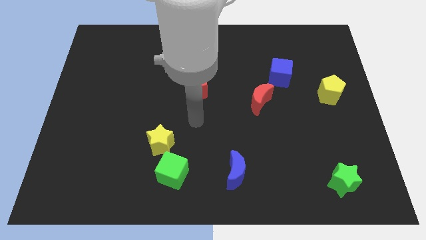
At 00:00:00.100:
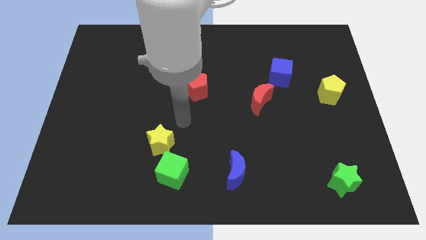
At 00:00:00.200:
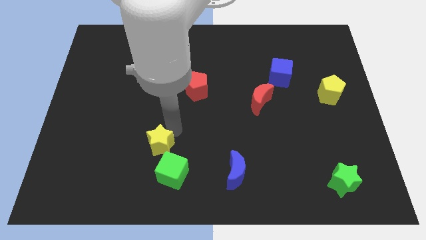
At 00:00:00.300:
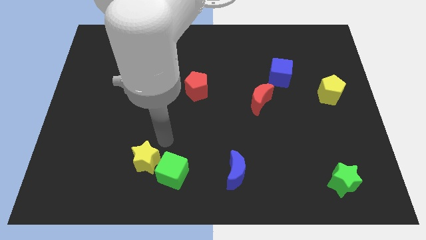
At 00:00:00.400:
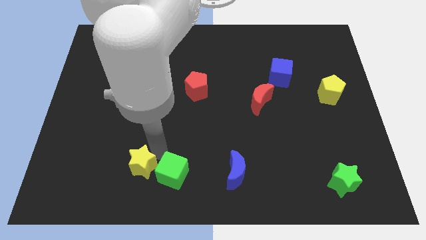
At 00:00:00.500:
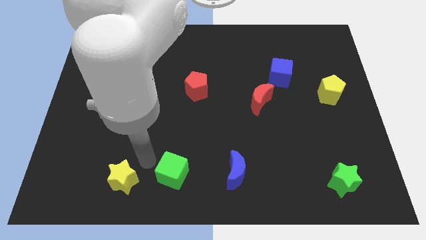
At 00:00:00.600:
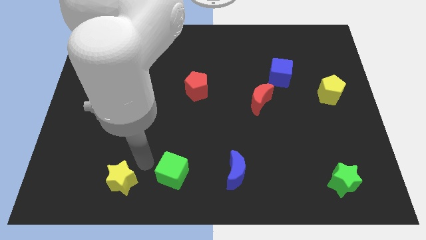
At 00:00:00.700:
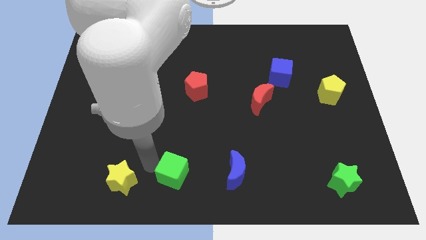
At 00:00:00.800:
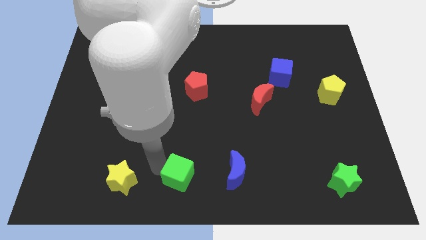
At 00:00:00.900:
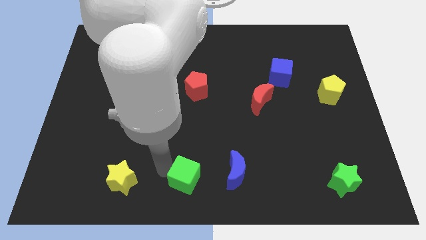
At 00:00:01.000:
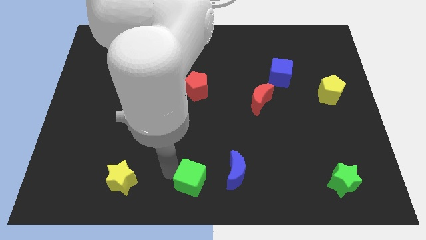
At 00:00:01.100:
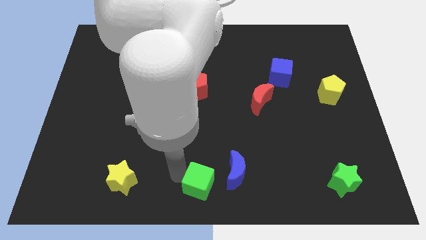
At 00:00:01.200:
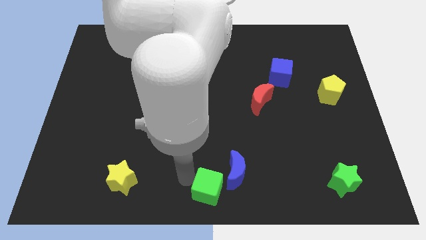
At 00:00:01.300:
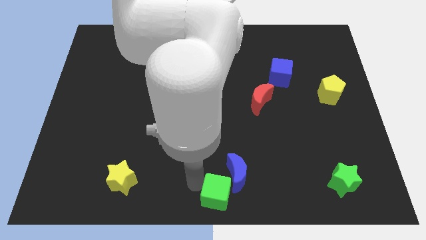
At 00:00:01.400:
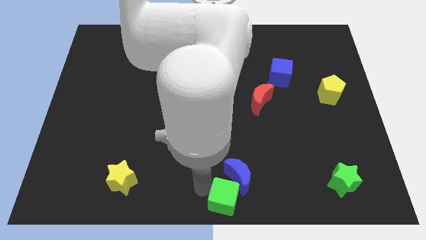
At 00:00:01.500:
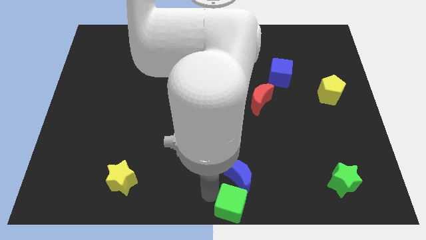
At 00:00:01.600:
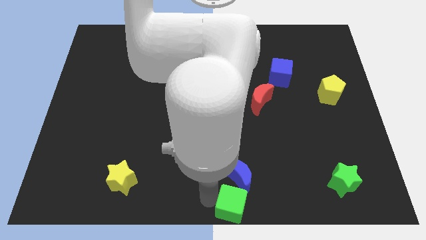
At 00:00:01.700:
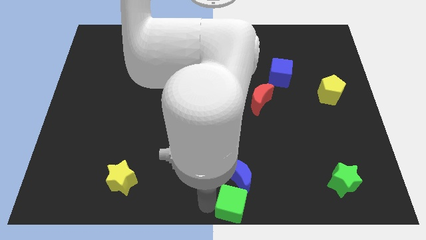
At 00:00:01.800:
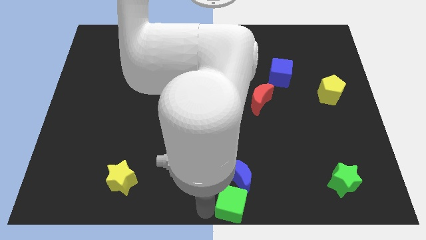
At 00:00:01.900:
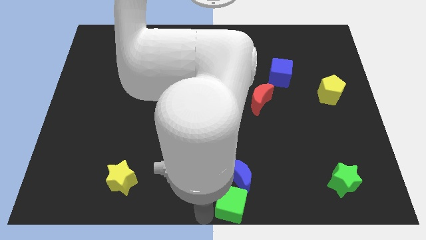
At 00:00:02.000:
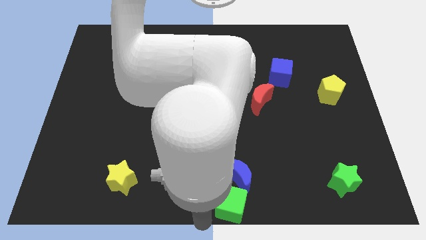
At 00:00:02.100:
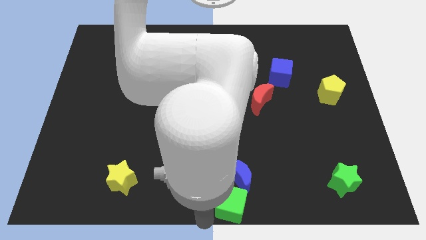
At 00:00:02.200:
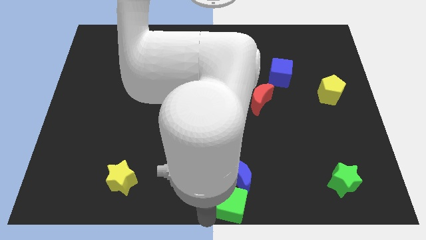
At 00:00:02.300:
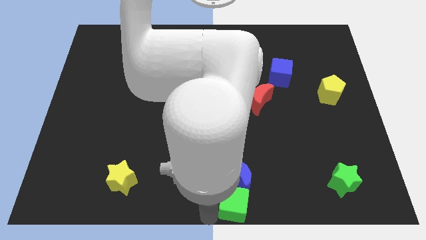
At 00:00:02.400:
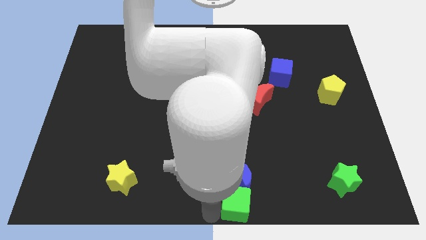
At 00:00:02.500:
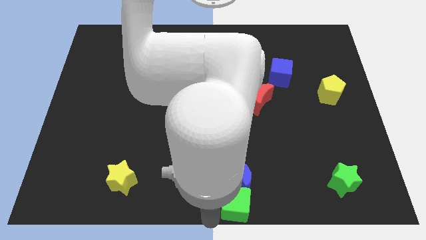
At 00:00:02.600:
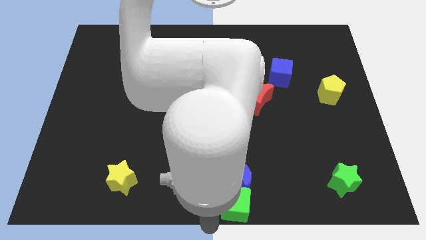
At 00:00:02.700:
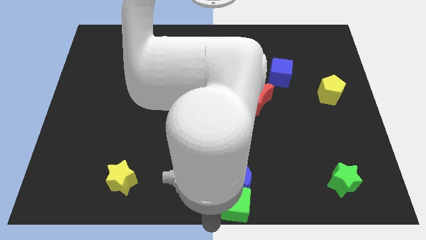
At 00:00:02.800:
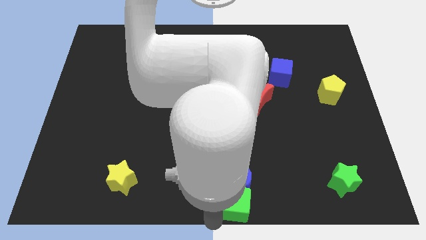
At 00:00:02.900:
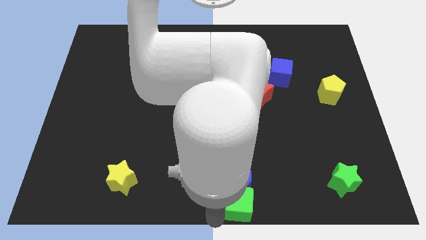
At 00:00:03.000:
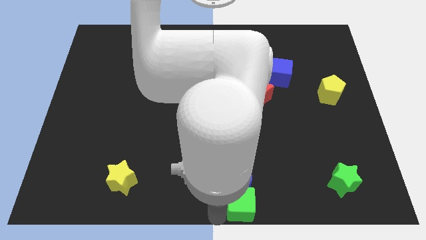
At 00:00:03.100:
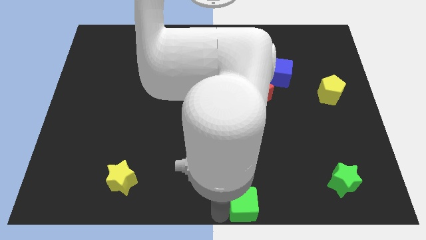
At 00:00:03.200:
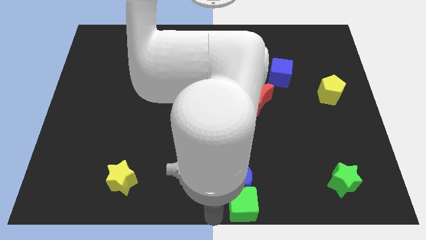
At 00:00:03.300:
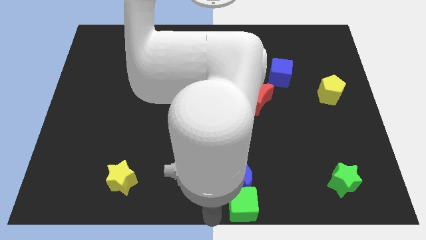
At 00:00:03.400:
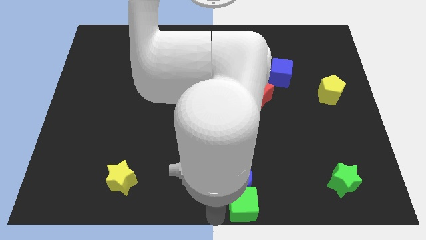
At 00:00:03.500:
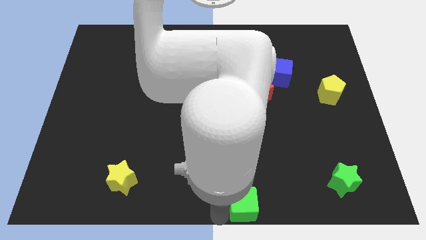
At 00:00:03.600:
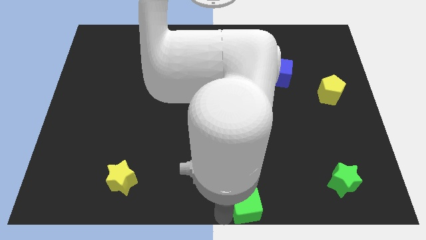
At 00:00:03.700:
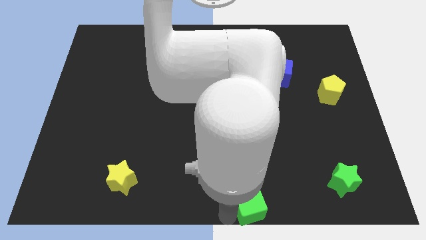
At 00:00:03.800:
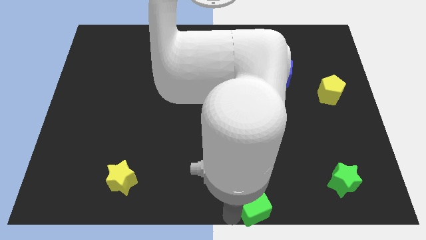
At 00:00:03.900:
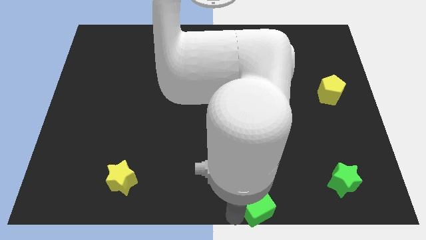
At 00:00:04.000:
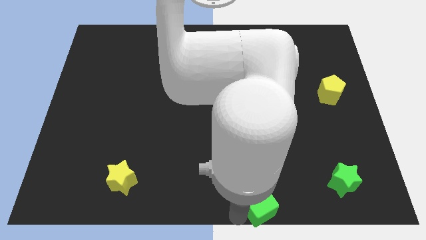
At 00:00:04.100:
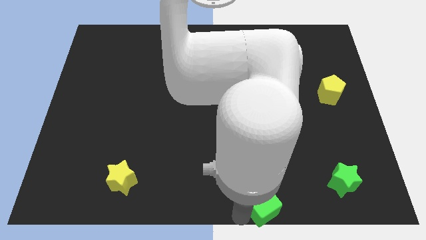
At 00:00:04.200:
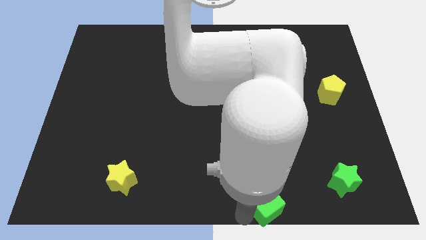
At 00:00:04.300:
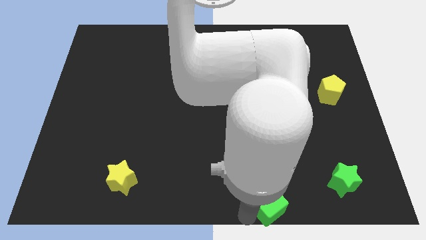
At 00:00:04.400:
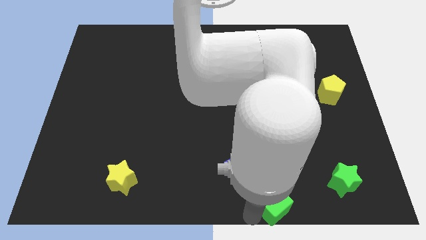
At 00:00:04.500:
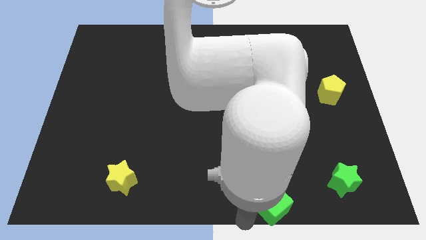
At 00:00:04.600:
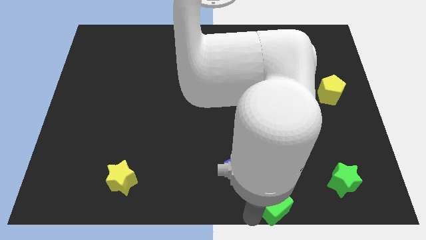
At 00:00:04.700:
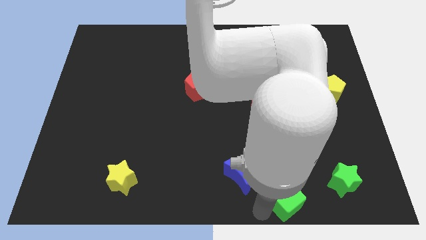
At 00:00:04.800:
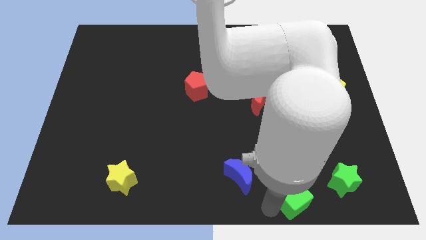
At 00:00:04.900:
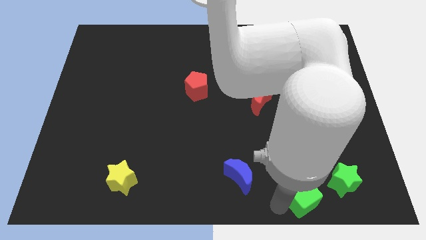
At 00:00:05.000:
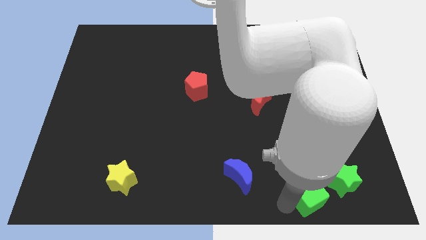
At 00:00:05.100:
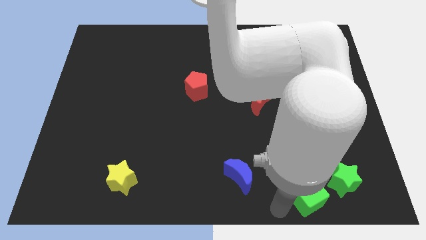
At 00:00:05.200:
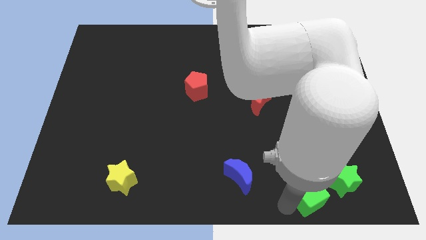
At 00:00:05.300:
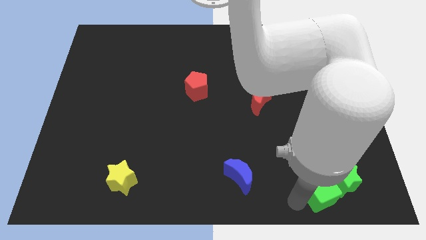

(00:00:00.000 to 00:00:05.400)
push the green cube close to the green star
